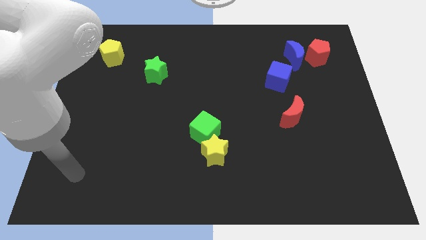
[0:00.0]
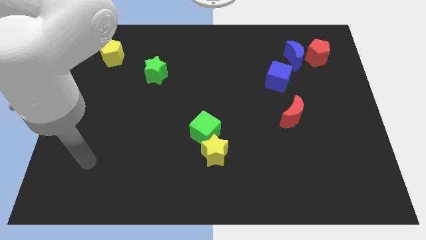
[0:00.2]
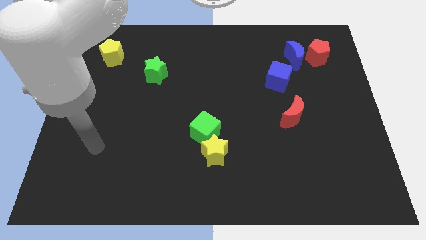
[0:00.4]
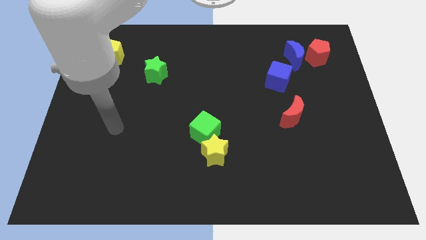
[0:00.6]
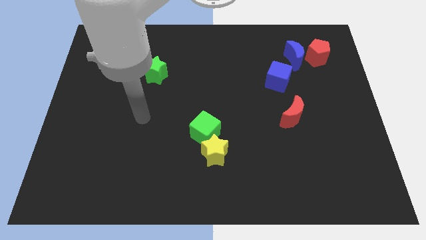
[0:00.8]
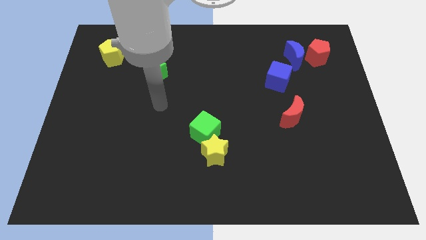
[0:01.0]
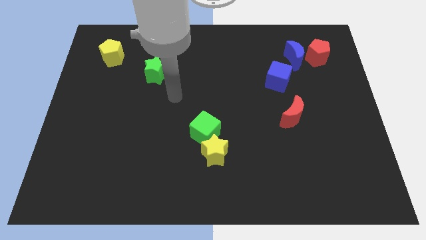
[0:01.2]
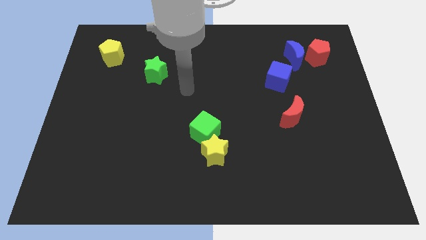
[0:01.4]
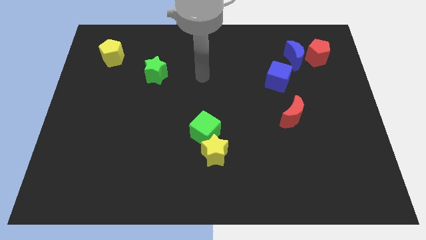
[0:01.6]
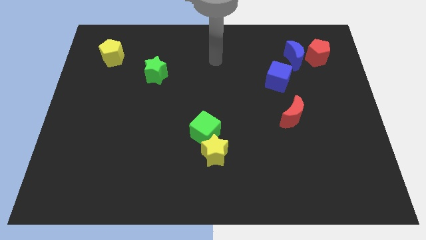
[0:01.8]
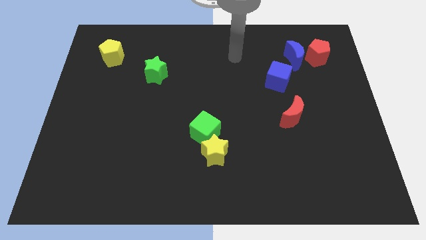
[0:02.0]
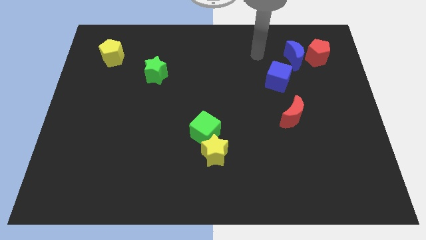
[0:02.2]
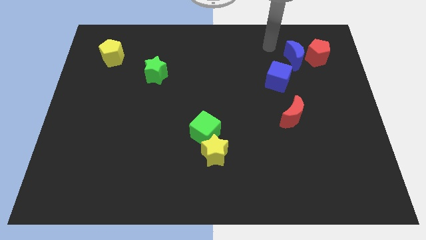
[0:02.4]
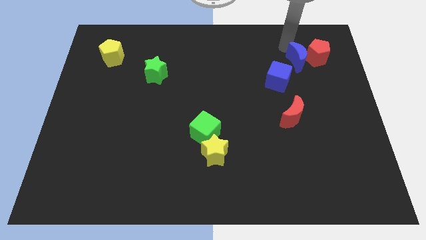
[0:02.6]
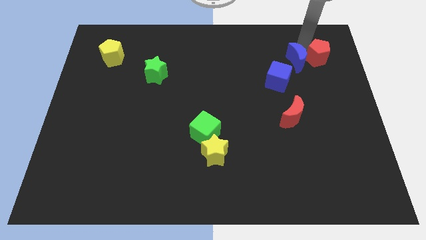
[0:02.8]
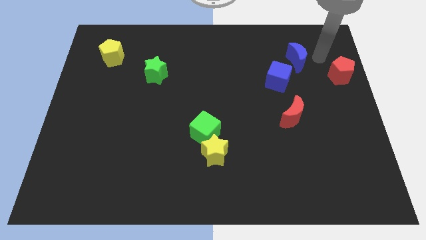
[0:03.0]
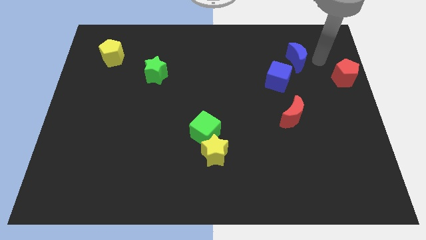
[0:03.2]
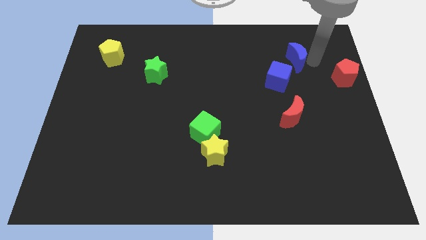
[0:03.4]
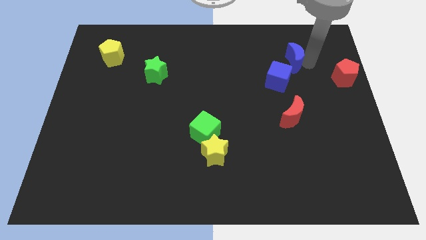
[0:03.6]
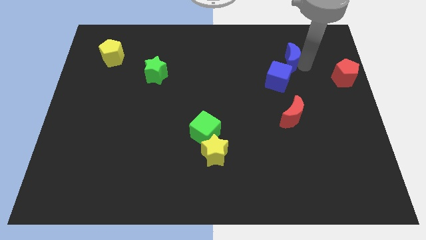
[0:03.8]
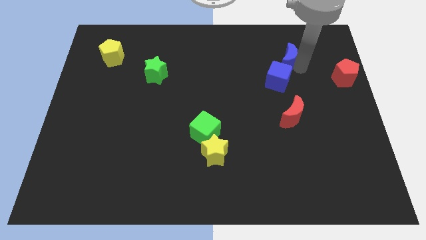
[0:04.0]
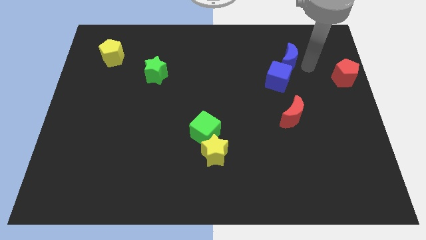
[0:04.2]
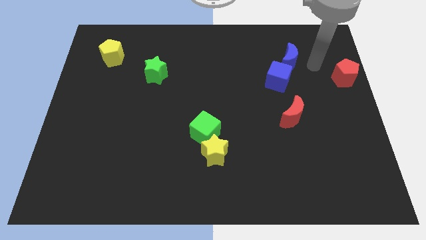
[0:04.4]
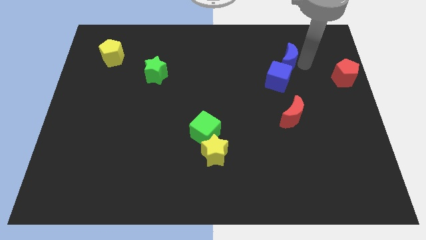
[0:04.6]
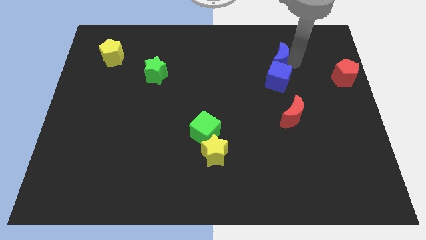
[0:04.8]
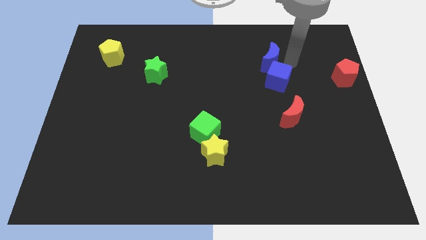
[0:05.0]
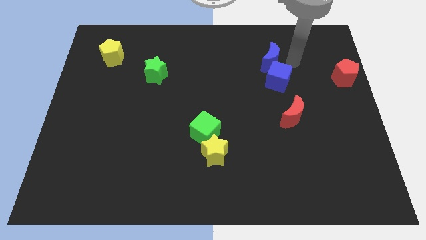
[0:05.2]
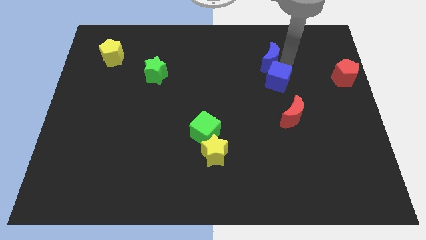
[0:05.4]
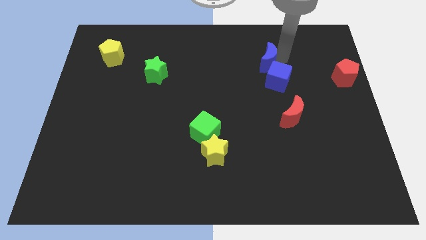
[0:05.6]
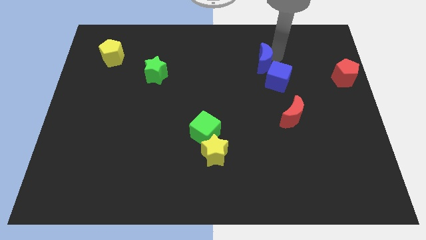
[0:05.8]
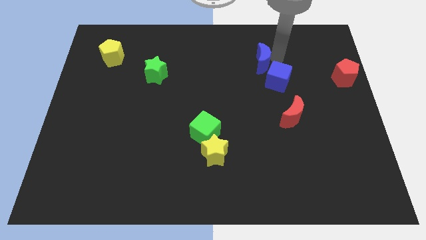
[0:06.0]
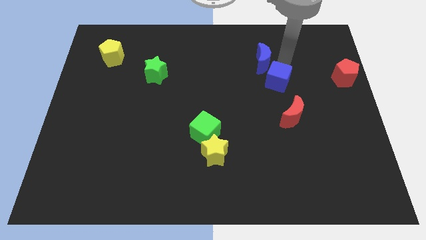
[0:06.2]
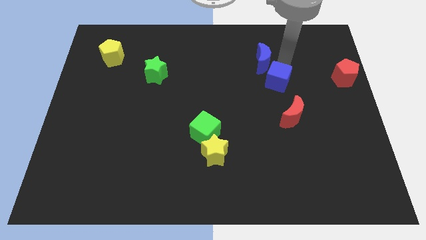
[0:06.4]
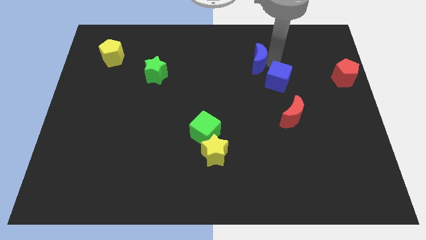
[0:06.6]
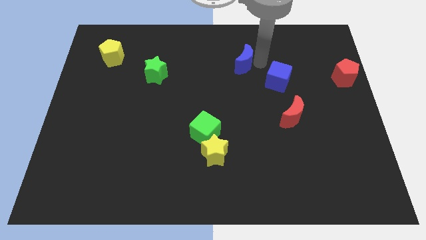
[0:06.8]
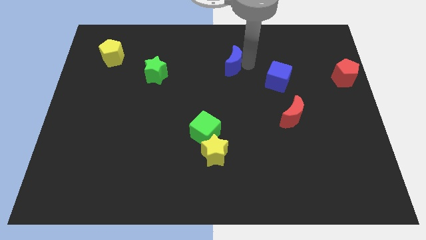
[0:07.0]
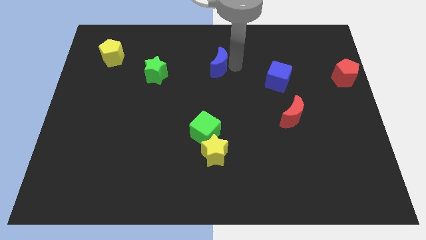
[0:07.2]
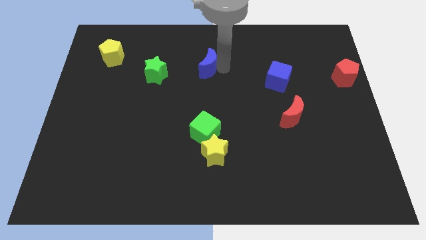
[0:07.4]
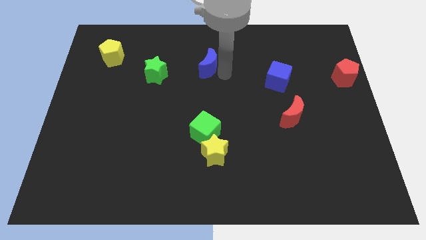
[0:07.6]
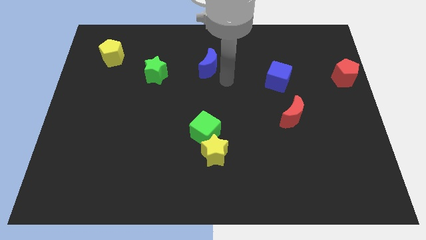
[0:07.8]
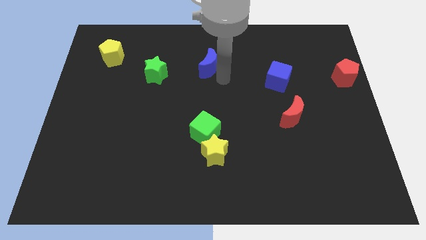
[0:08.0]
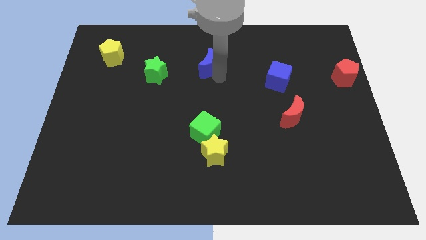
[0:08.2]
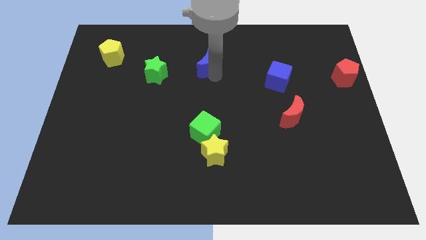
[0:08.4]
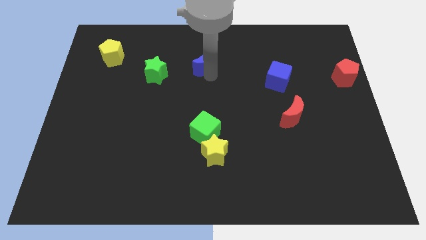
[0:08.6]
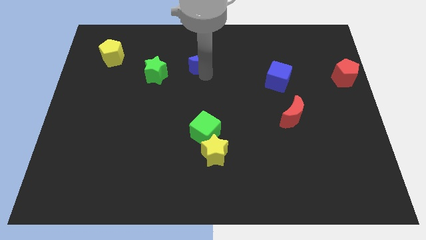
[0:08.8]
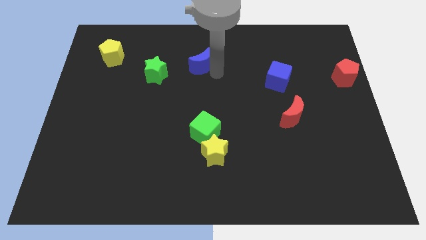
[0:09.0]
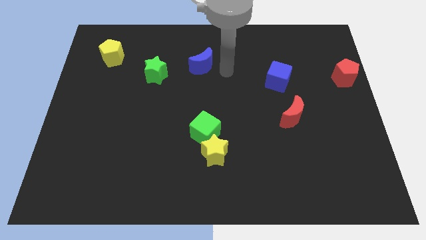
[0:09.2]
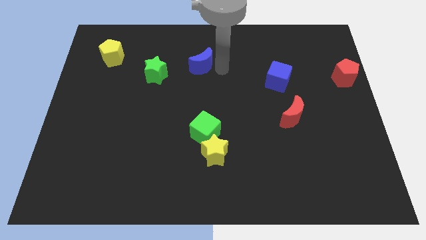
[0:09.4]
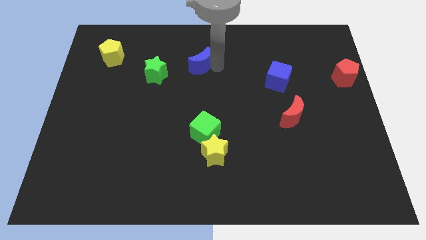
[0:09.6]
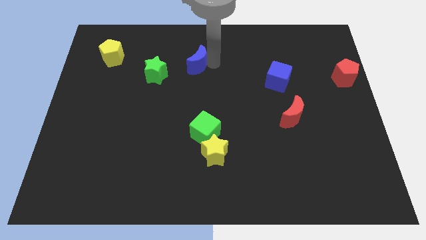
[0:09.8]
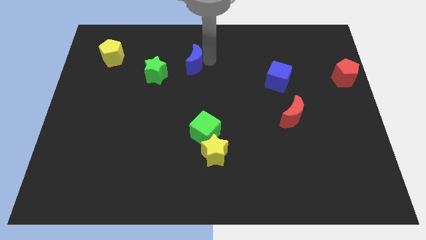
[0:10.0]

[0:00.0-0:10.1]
push the blue moon to the top right of the green star

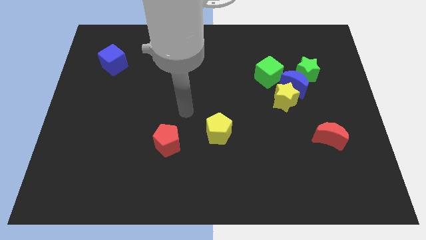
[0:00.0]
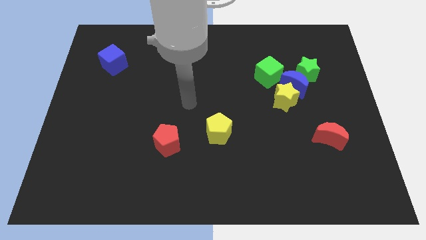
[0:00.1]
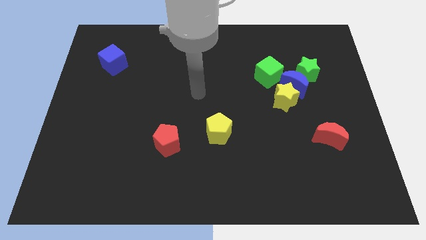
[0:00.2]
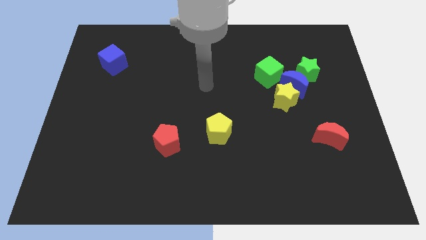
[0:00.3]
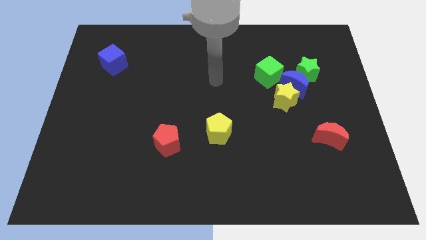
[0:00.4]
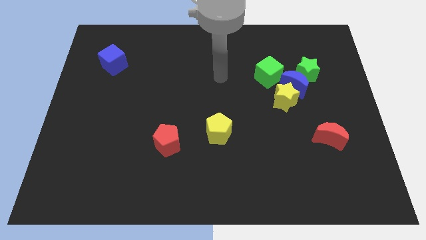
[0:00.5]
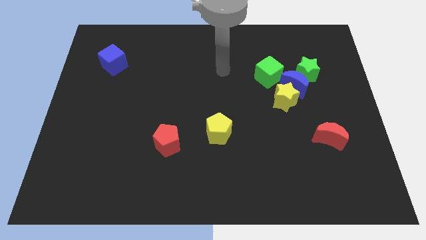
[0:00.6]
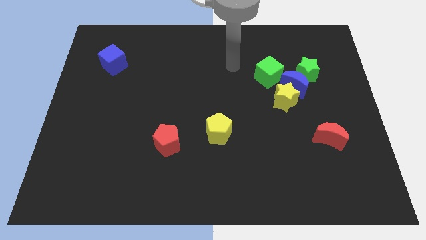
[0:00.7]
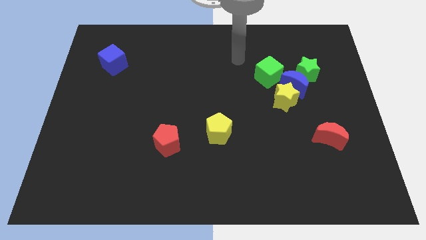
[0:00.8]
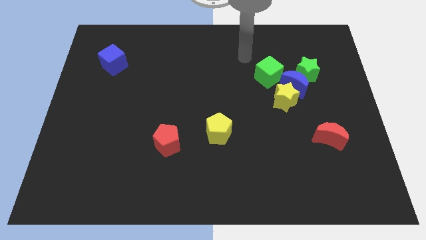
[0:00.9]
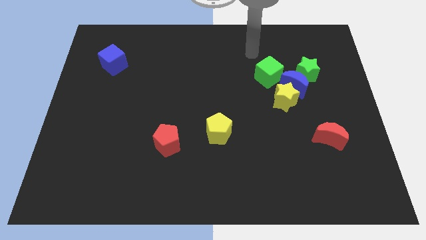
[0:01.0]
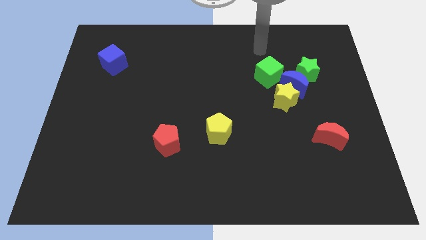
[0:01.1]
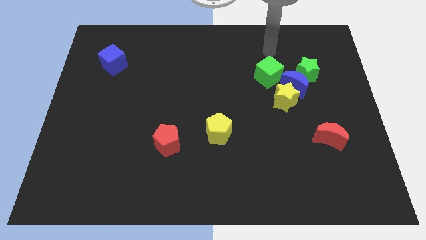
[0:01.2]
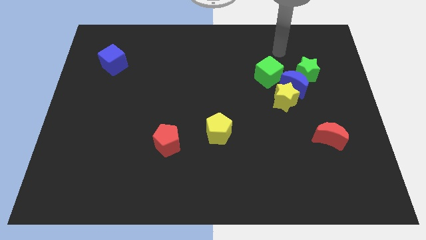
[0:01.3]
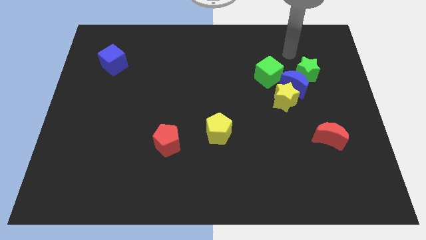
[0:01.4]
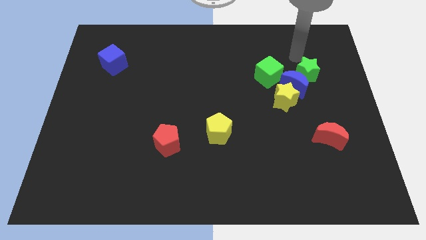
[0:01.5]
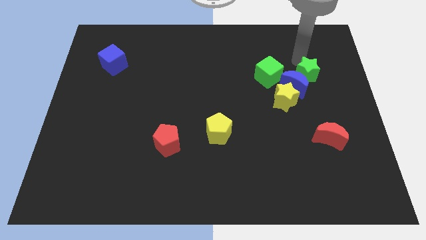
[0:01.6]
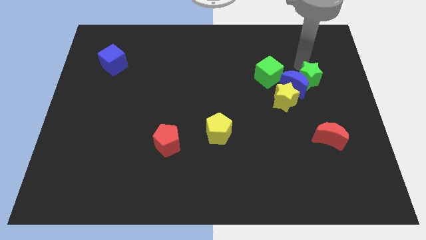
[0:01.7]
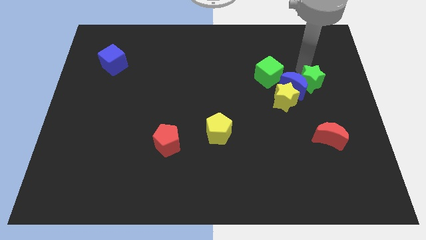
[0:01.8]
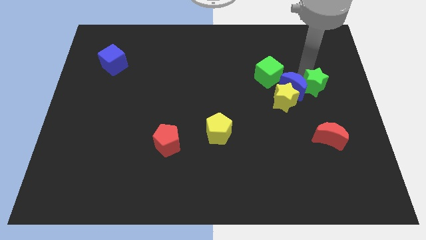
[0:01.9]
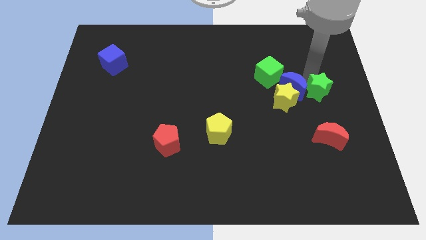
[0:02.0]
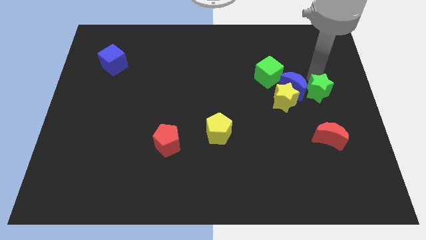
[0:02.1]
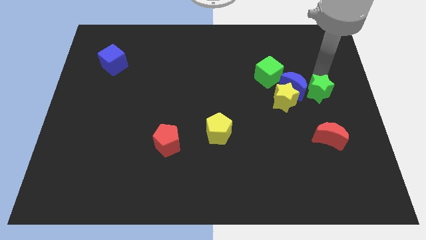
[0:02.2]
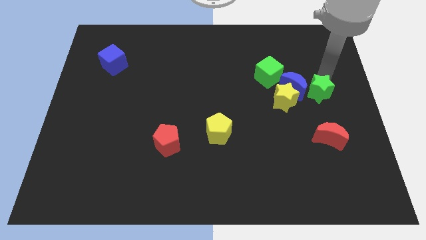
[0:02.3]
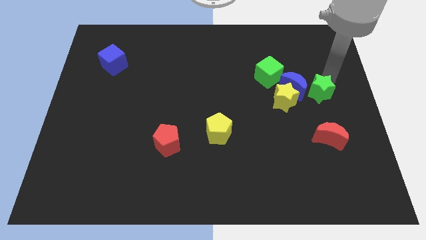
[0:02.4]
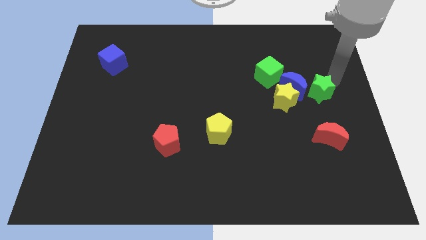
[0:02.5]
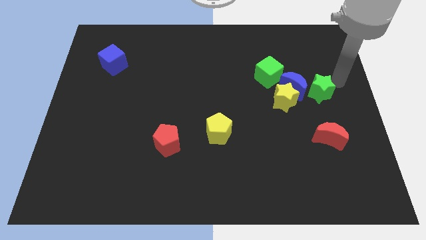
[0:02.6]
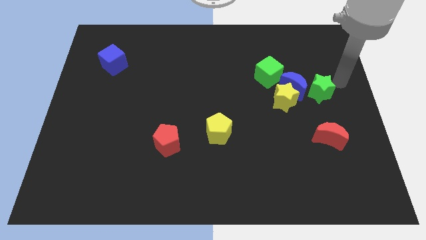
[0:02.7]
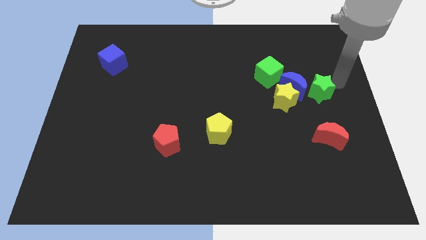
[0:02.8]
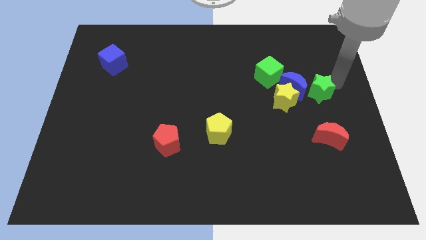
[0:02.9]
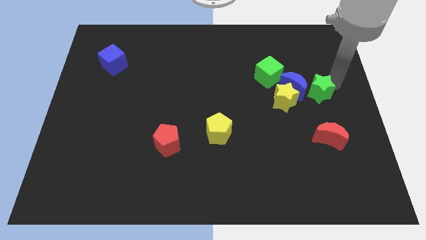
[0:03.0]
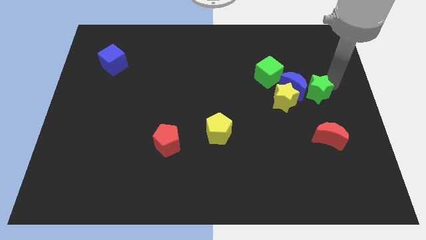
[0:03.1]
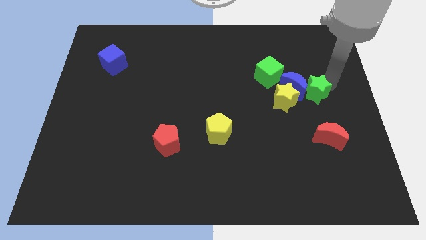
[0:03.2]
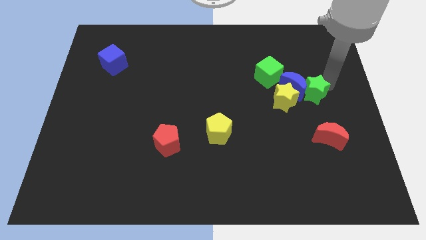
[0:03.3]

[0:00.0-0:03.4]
move the green star to the bottom right of the green cube
